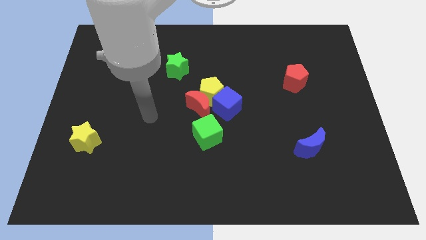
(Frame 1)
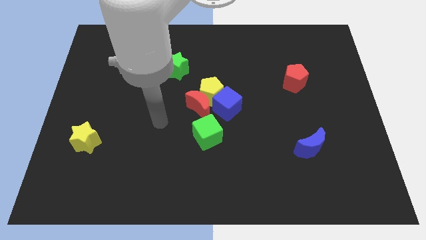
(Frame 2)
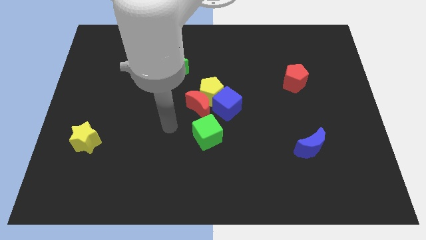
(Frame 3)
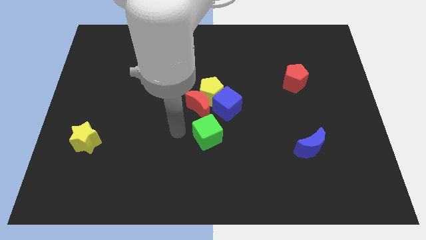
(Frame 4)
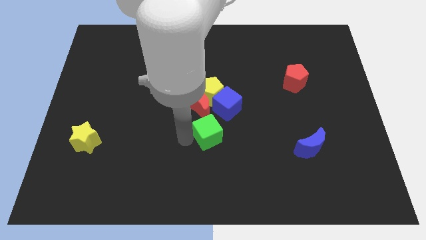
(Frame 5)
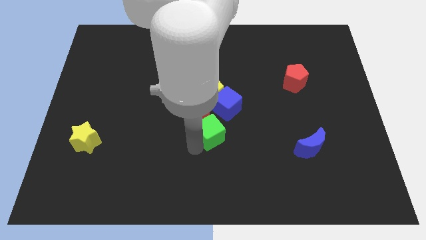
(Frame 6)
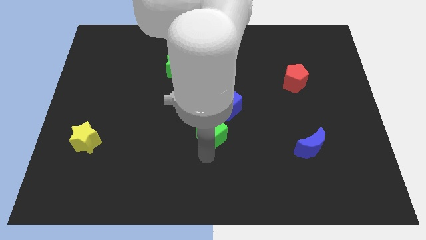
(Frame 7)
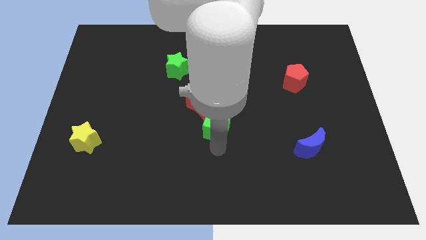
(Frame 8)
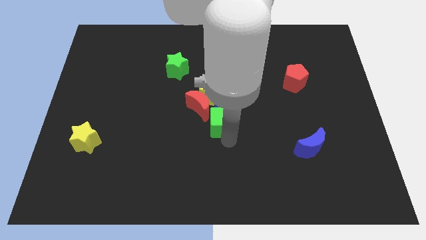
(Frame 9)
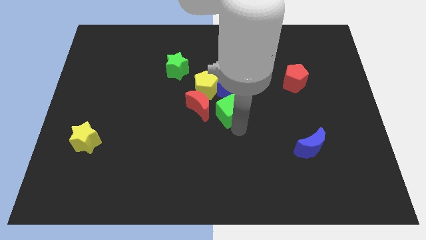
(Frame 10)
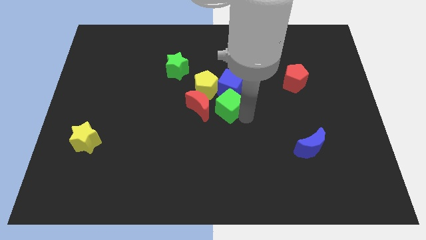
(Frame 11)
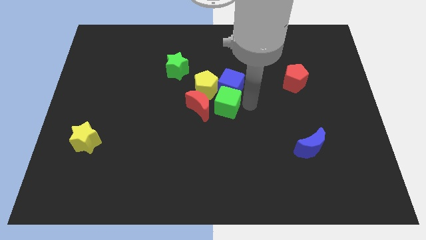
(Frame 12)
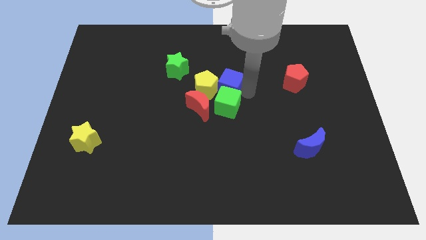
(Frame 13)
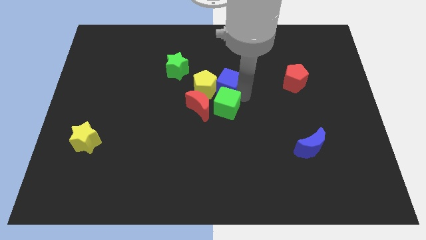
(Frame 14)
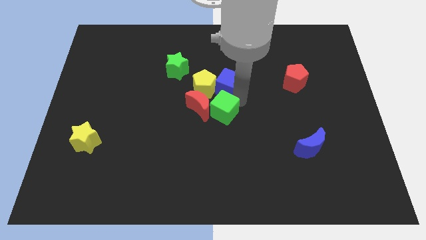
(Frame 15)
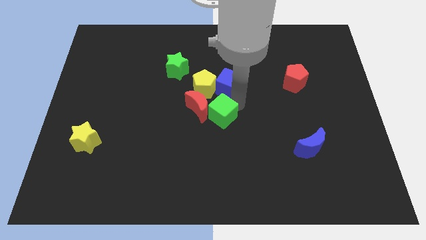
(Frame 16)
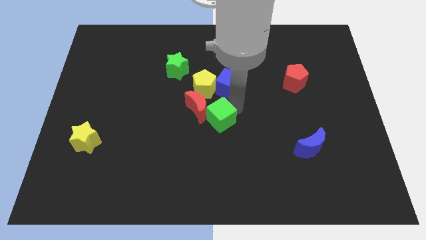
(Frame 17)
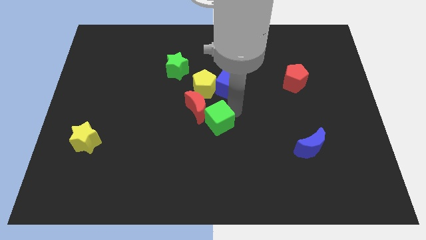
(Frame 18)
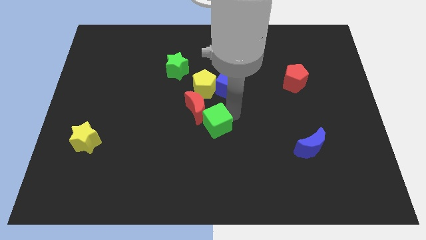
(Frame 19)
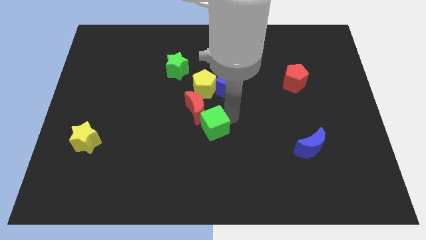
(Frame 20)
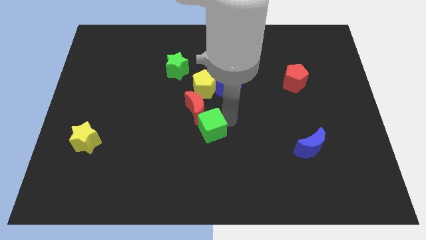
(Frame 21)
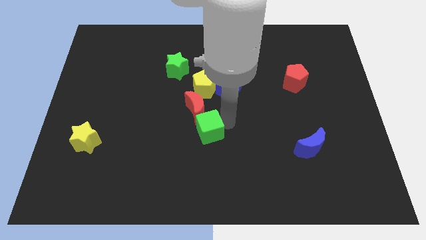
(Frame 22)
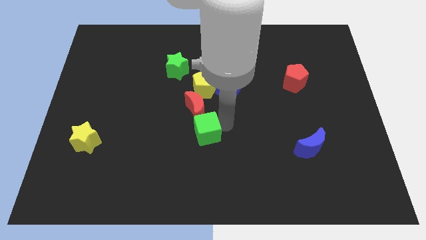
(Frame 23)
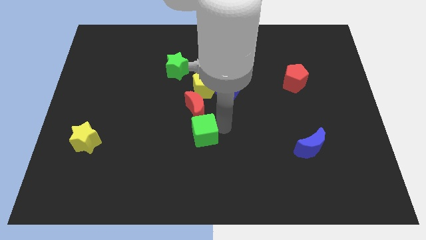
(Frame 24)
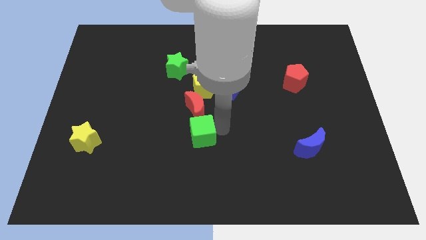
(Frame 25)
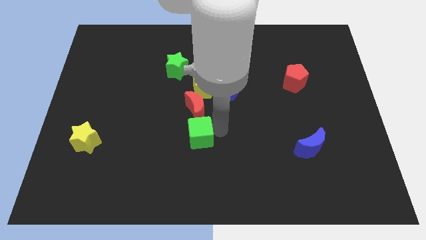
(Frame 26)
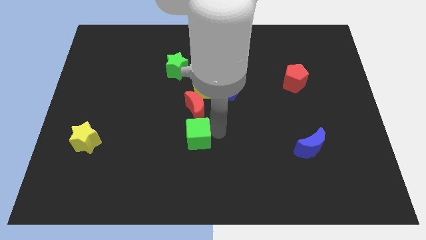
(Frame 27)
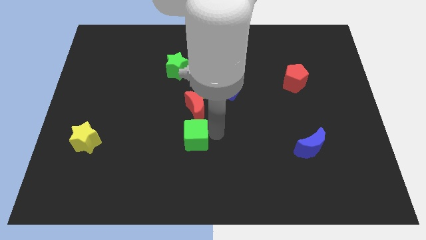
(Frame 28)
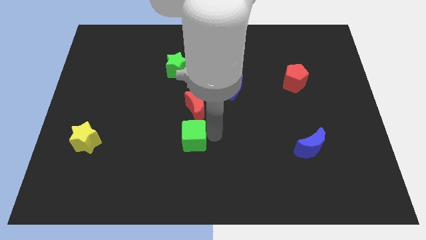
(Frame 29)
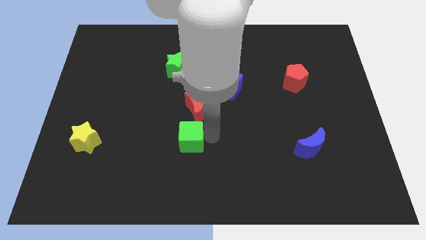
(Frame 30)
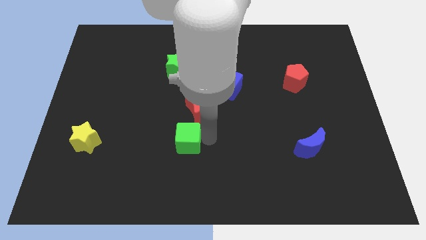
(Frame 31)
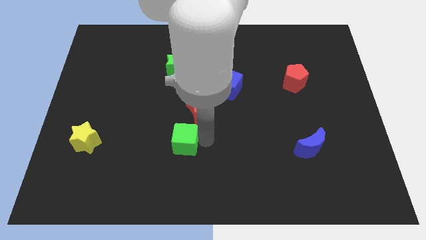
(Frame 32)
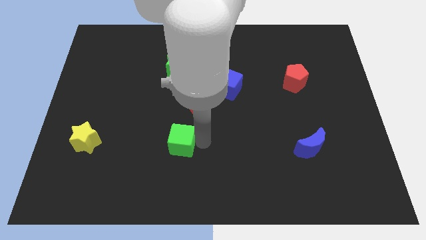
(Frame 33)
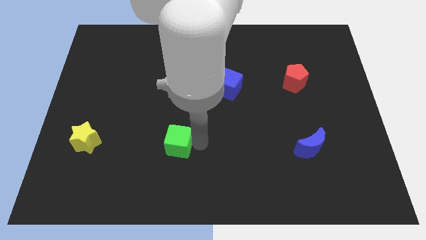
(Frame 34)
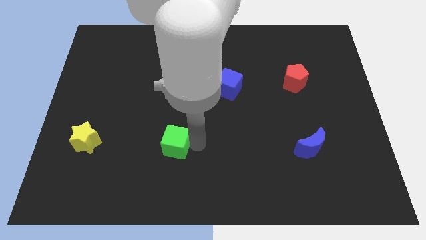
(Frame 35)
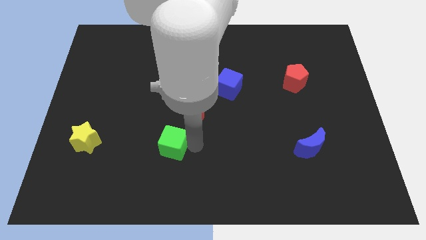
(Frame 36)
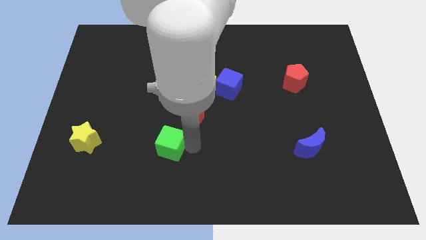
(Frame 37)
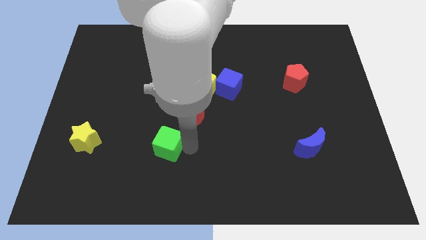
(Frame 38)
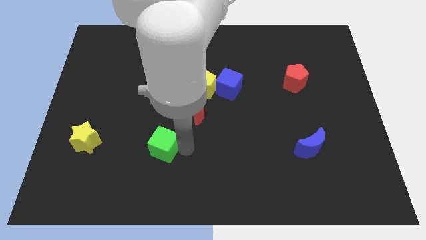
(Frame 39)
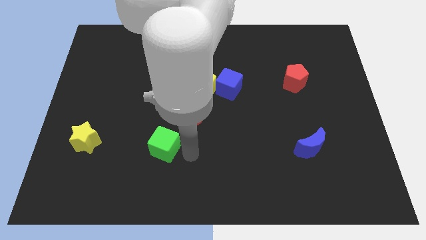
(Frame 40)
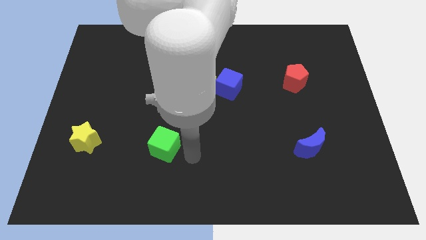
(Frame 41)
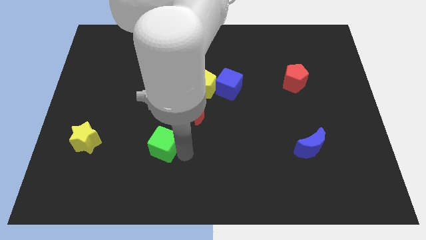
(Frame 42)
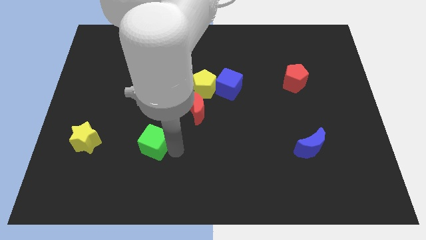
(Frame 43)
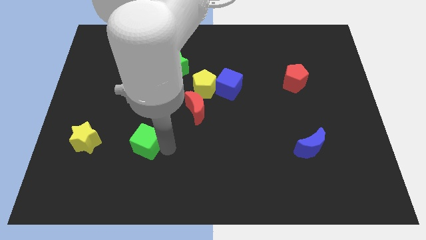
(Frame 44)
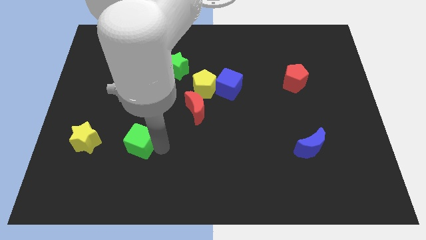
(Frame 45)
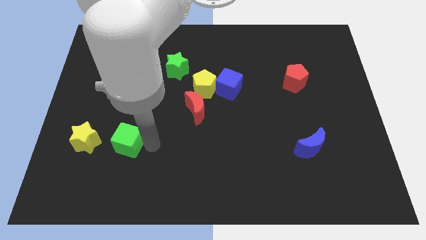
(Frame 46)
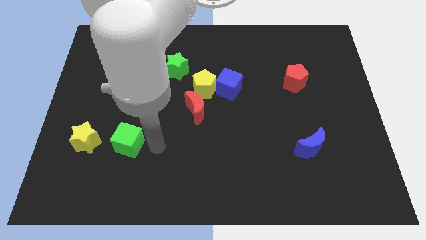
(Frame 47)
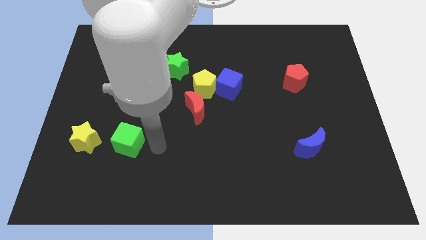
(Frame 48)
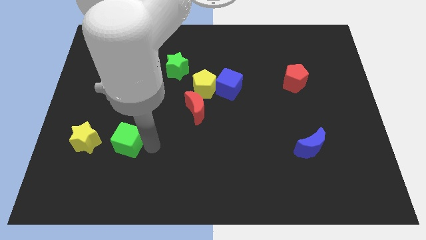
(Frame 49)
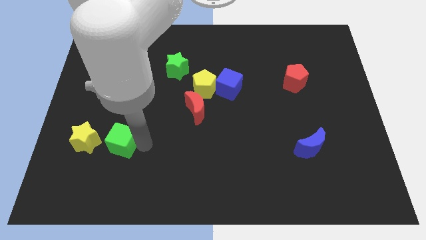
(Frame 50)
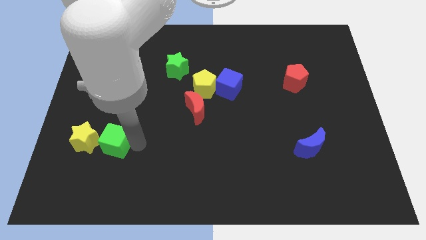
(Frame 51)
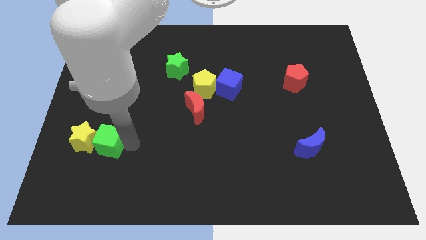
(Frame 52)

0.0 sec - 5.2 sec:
slide the green cube close to the yellow star

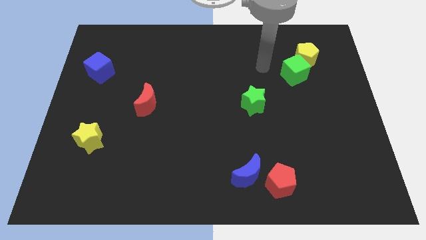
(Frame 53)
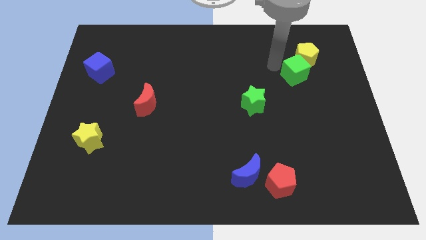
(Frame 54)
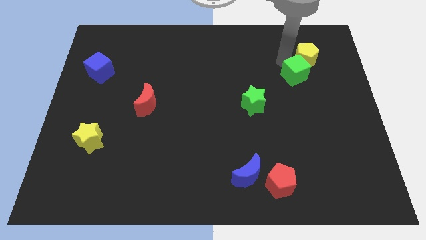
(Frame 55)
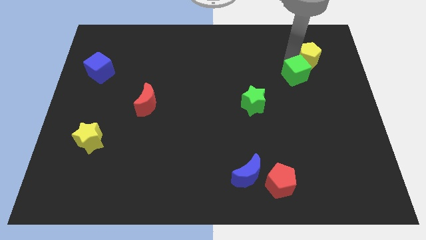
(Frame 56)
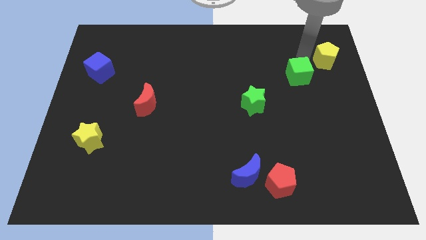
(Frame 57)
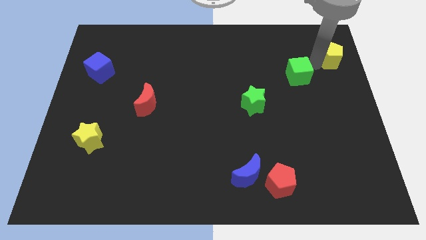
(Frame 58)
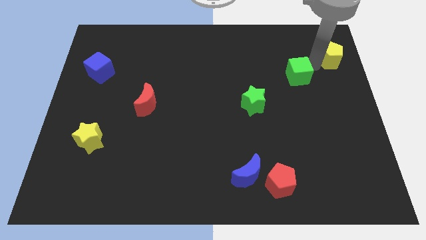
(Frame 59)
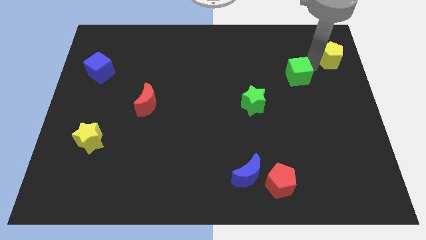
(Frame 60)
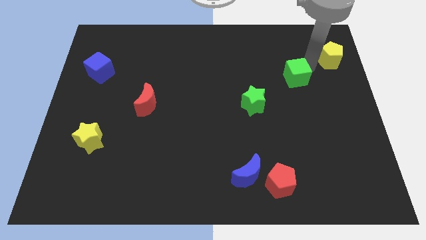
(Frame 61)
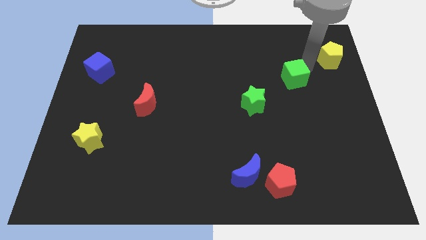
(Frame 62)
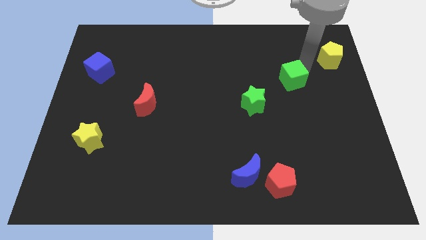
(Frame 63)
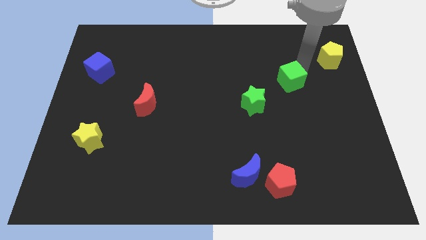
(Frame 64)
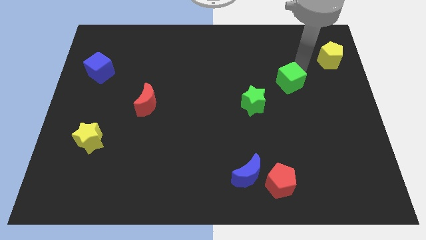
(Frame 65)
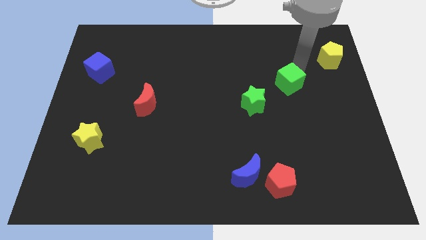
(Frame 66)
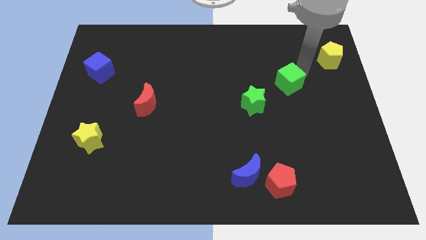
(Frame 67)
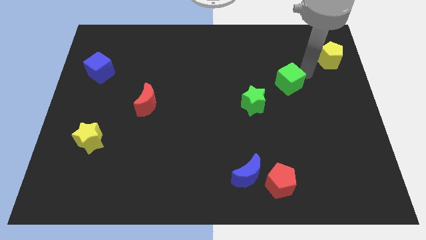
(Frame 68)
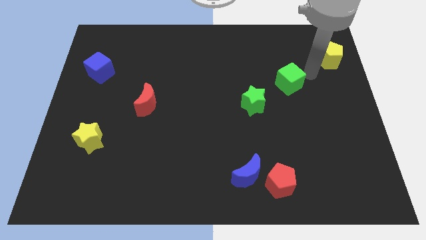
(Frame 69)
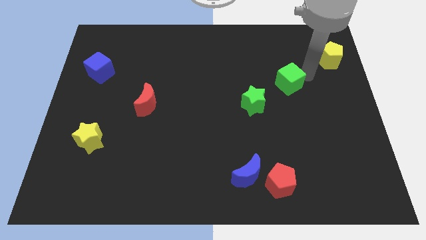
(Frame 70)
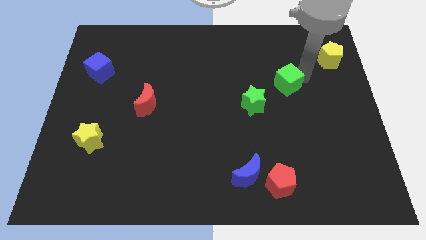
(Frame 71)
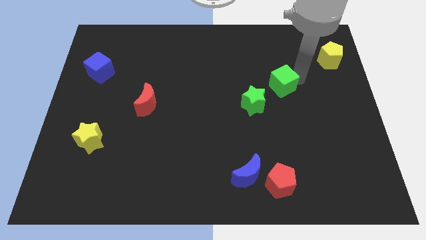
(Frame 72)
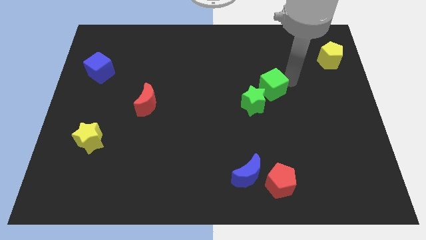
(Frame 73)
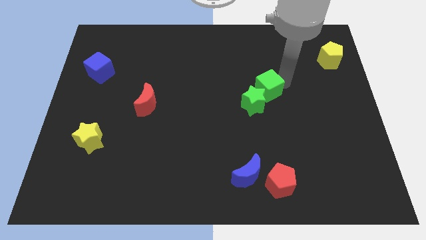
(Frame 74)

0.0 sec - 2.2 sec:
push the green cube towards the green star
